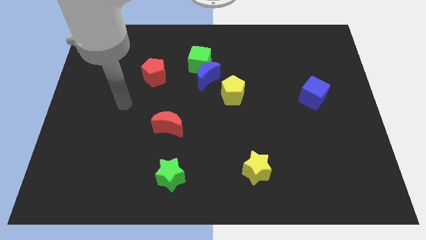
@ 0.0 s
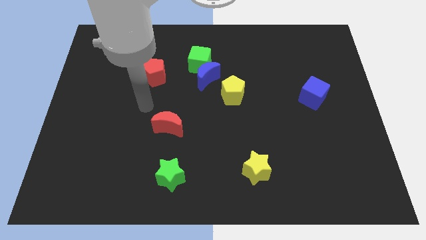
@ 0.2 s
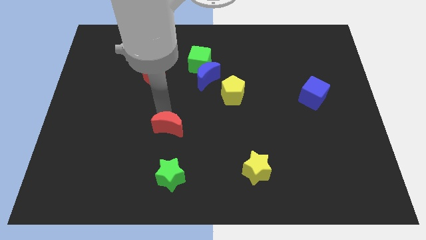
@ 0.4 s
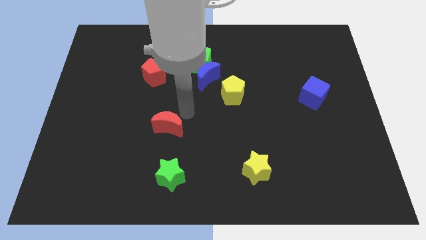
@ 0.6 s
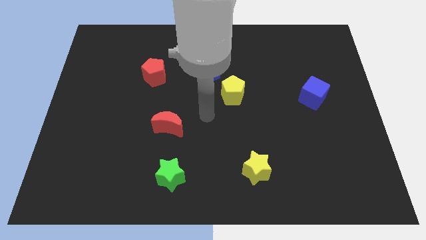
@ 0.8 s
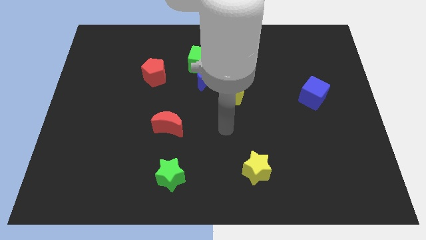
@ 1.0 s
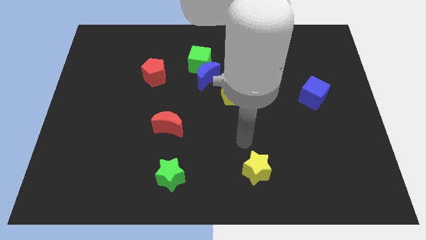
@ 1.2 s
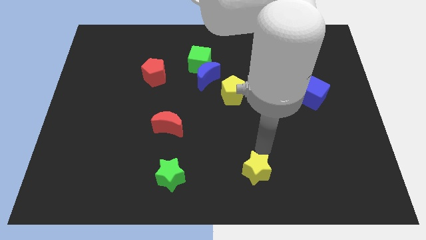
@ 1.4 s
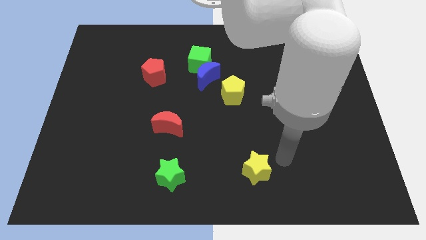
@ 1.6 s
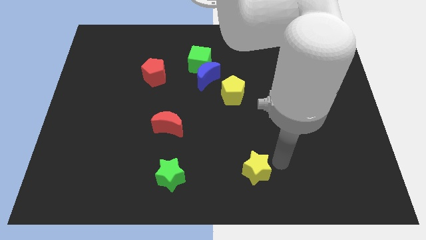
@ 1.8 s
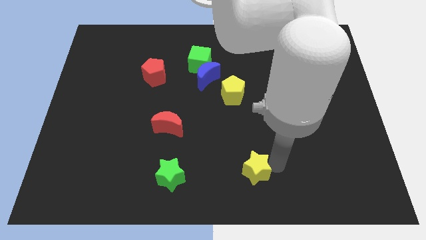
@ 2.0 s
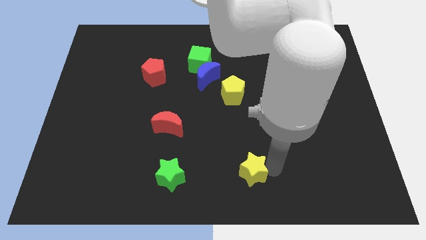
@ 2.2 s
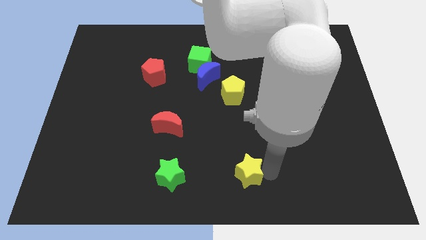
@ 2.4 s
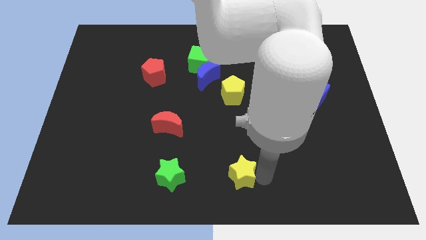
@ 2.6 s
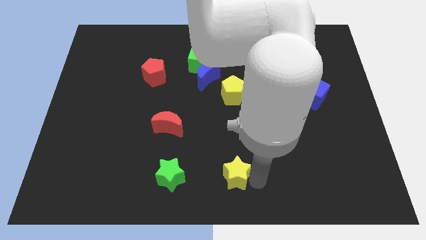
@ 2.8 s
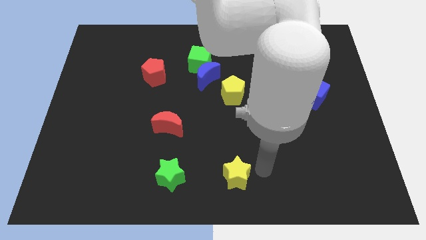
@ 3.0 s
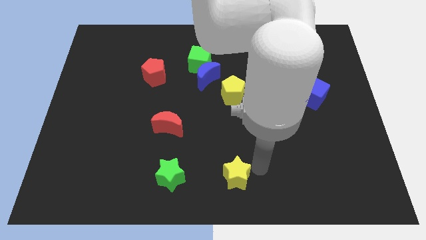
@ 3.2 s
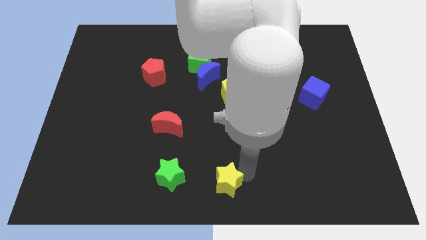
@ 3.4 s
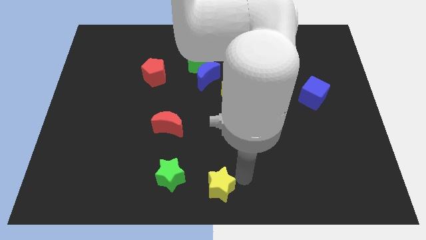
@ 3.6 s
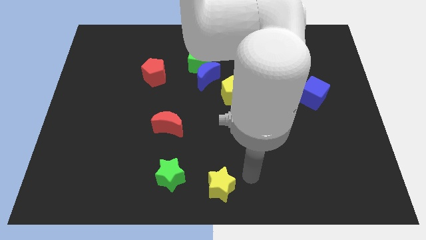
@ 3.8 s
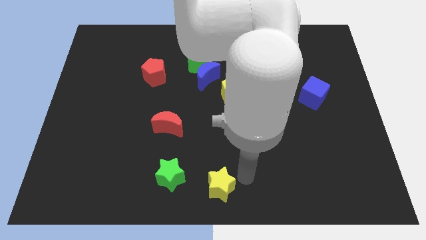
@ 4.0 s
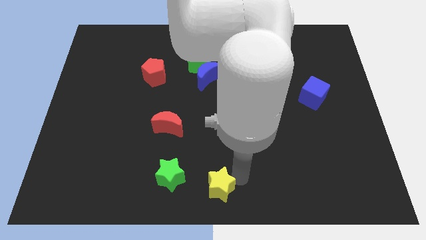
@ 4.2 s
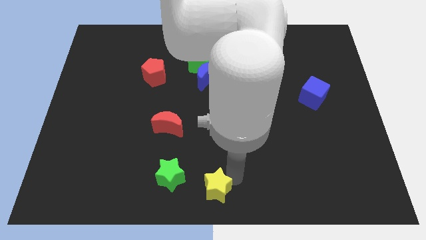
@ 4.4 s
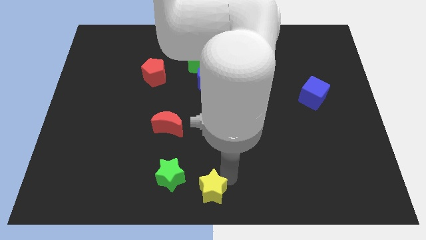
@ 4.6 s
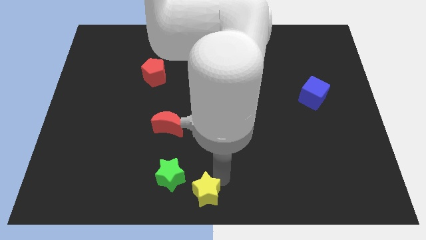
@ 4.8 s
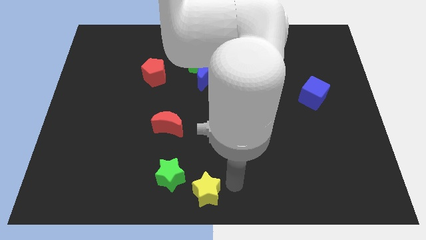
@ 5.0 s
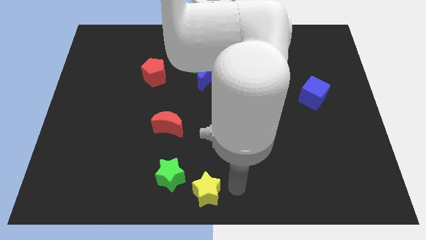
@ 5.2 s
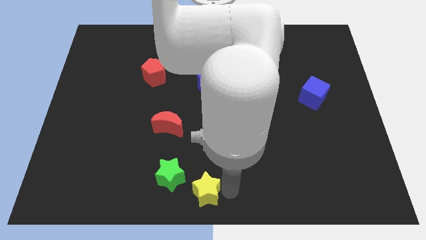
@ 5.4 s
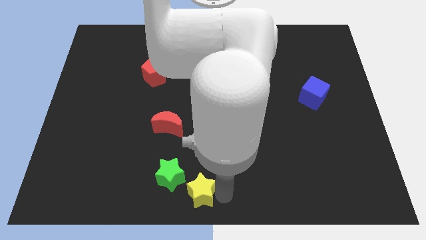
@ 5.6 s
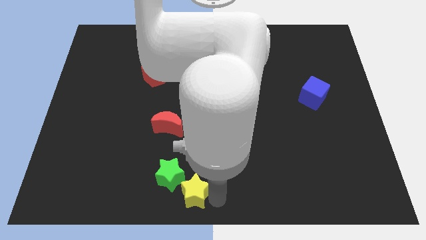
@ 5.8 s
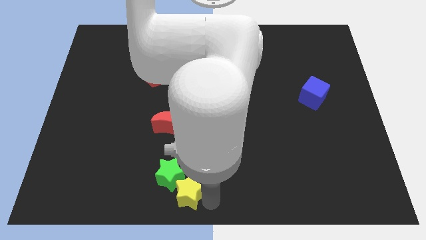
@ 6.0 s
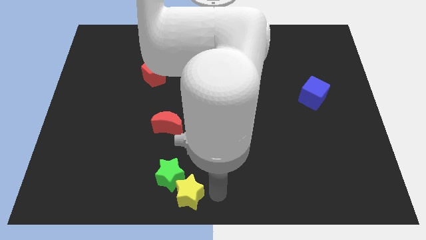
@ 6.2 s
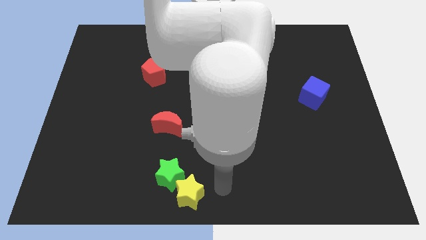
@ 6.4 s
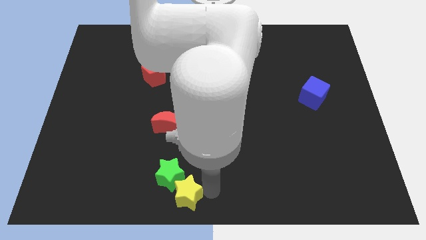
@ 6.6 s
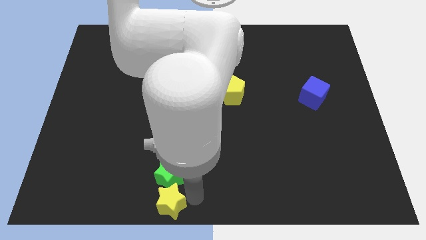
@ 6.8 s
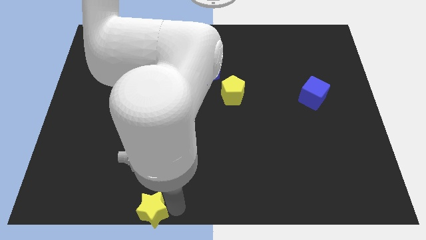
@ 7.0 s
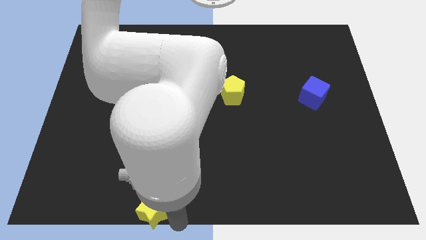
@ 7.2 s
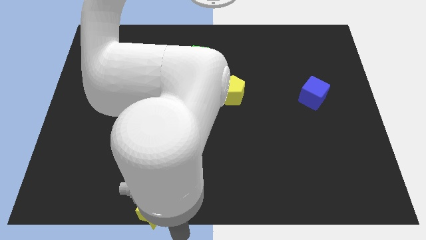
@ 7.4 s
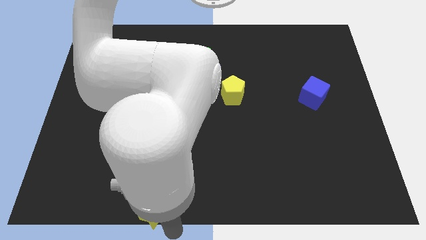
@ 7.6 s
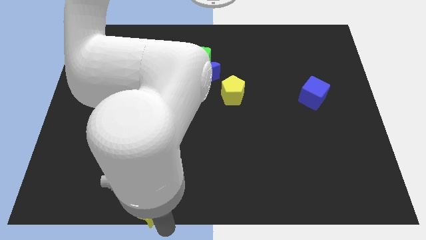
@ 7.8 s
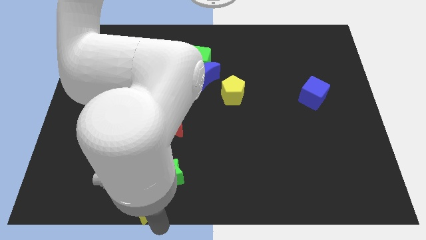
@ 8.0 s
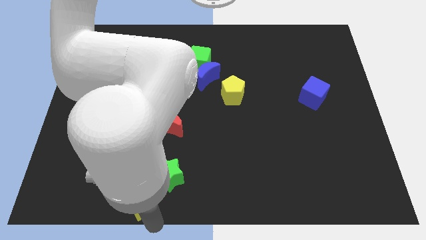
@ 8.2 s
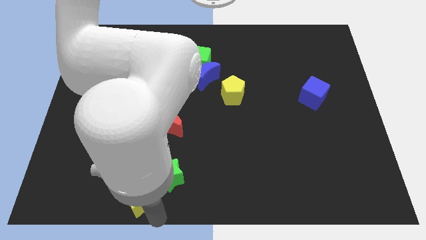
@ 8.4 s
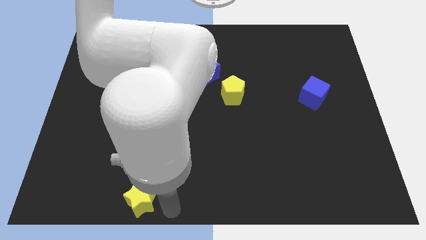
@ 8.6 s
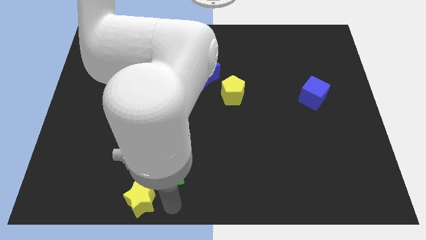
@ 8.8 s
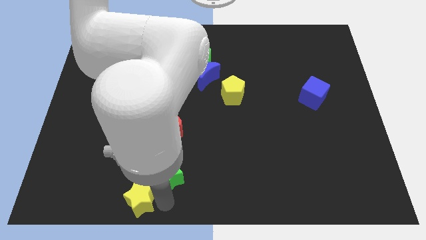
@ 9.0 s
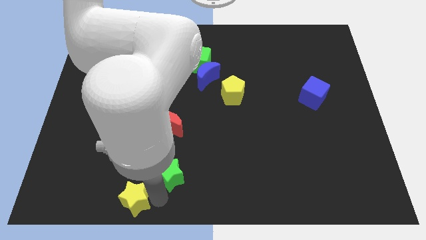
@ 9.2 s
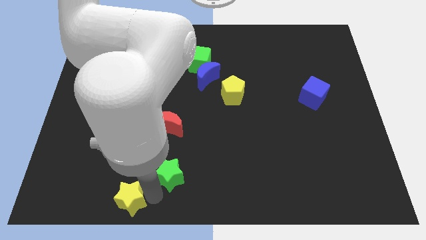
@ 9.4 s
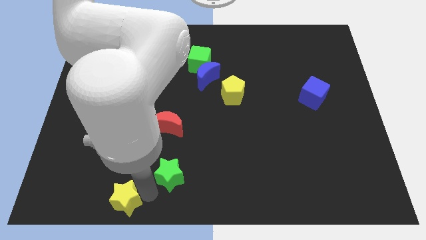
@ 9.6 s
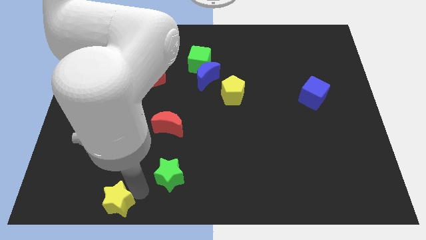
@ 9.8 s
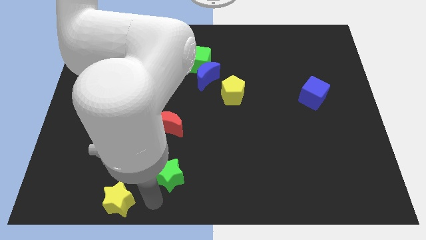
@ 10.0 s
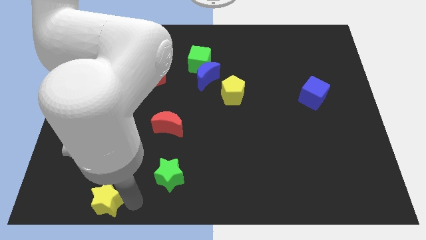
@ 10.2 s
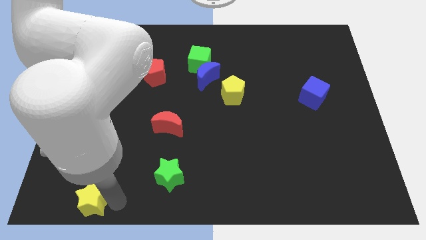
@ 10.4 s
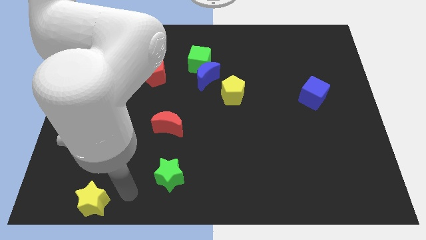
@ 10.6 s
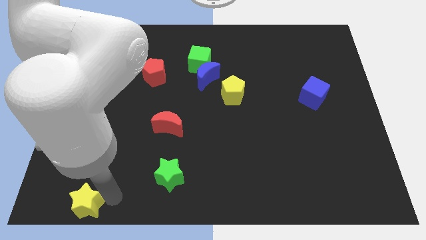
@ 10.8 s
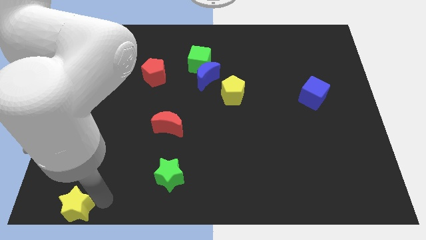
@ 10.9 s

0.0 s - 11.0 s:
push the yellow star to the lower left corner

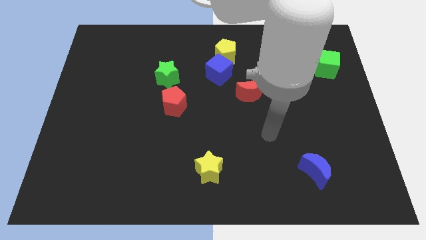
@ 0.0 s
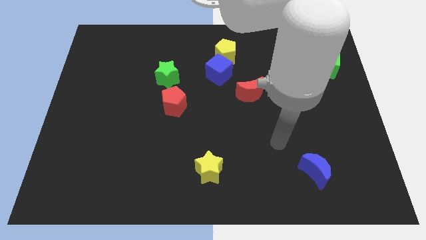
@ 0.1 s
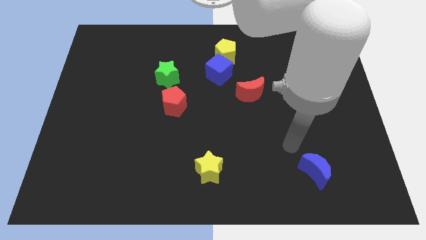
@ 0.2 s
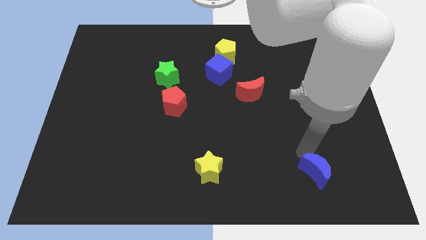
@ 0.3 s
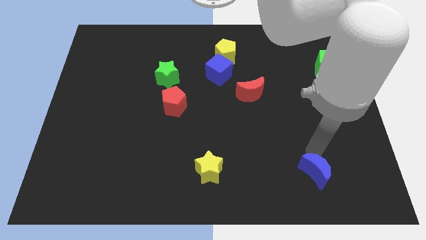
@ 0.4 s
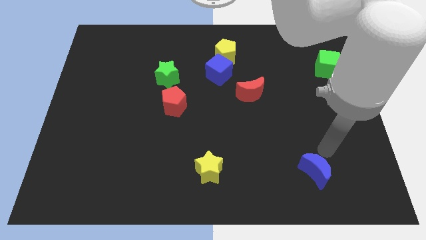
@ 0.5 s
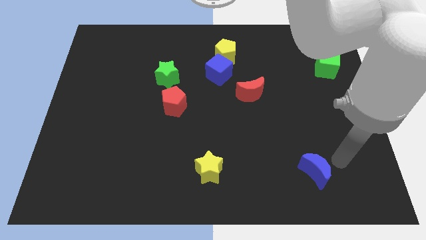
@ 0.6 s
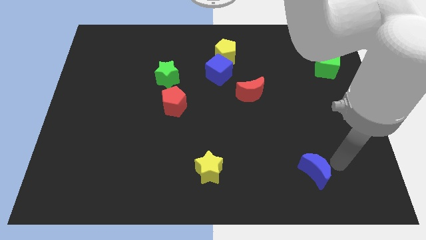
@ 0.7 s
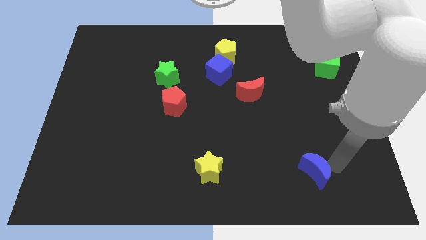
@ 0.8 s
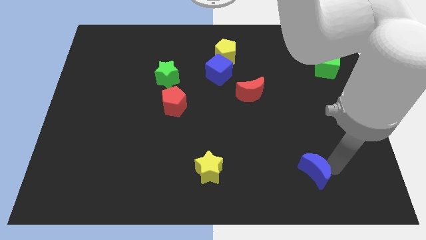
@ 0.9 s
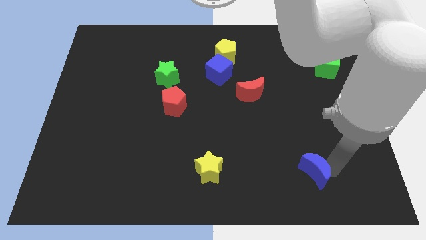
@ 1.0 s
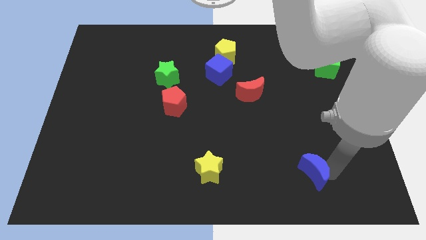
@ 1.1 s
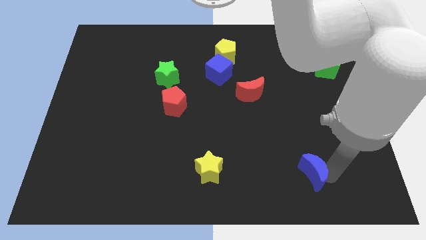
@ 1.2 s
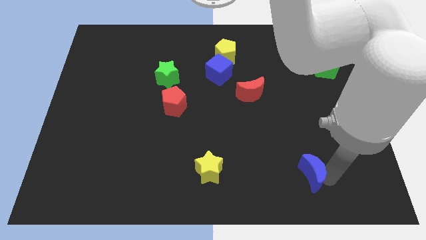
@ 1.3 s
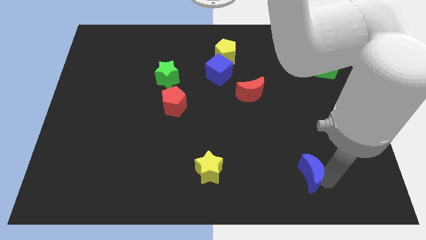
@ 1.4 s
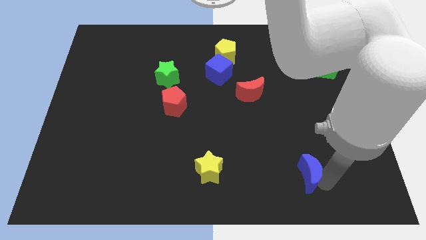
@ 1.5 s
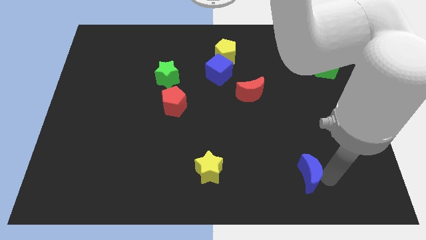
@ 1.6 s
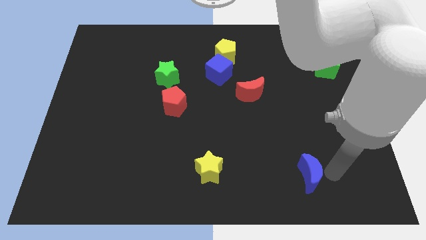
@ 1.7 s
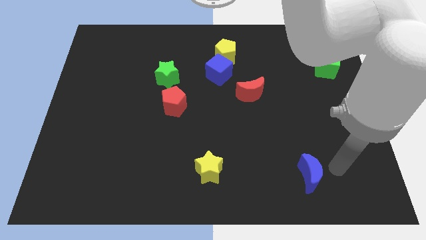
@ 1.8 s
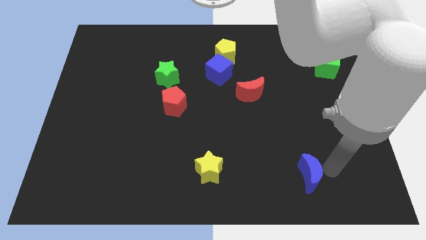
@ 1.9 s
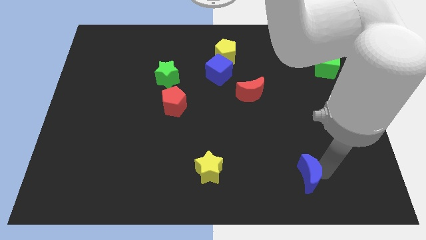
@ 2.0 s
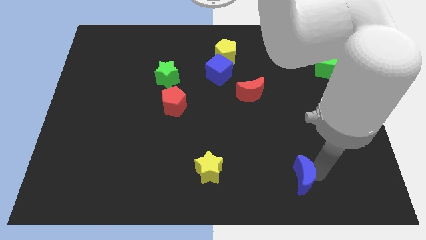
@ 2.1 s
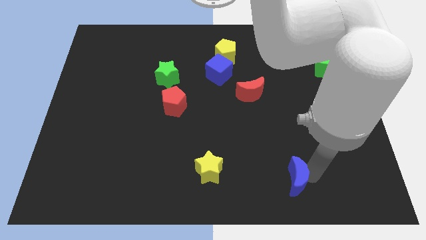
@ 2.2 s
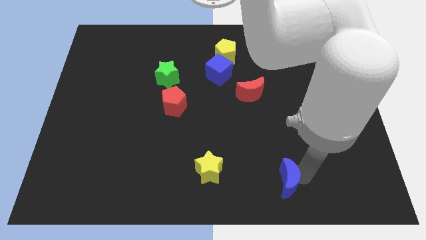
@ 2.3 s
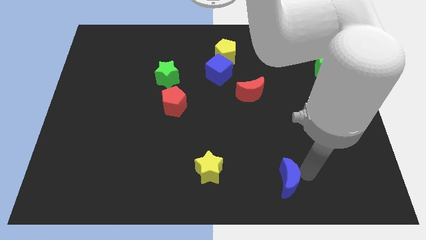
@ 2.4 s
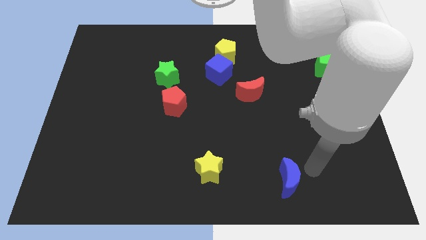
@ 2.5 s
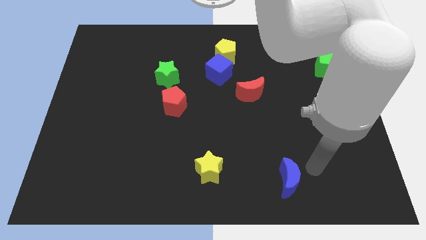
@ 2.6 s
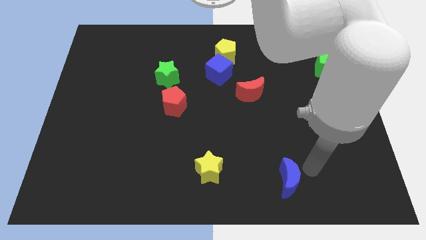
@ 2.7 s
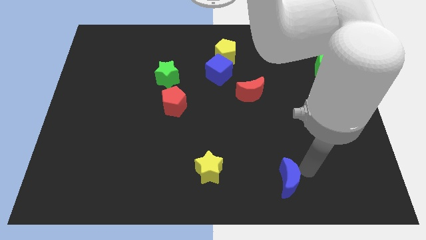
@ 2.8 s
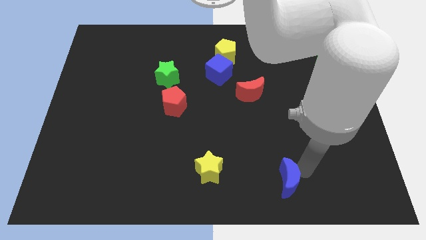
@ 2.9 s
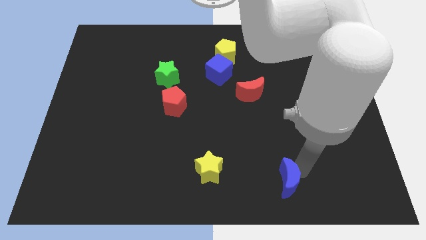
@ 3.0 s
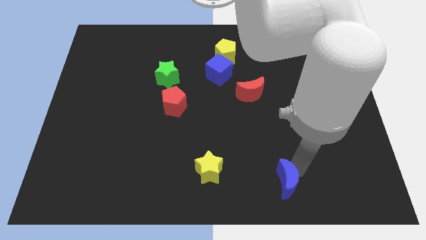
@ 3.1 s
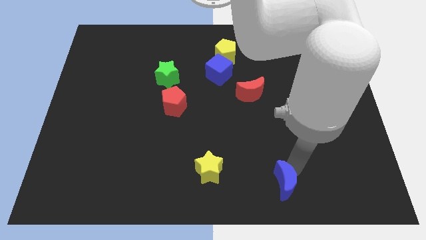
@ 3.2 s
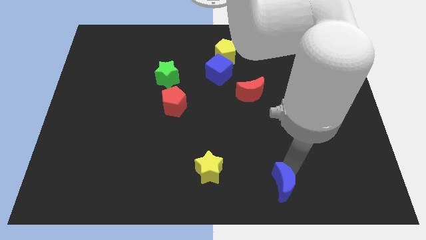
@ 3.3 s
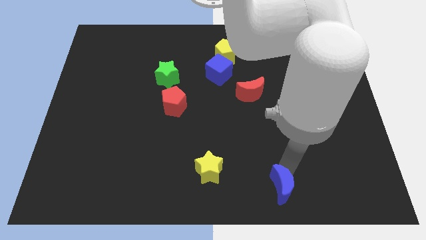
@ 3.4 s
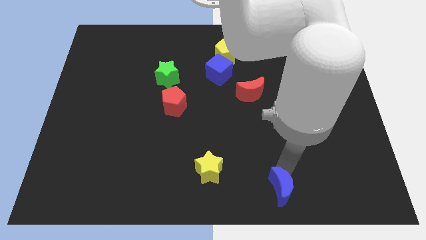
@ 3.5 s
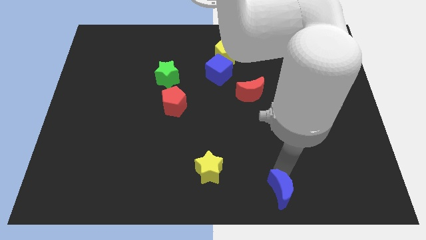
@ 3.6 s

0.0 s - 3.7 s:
push the blue moon to the bottom
